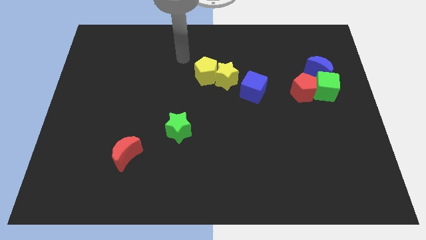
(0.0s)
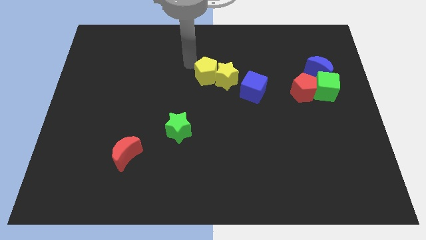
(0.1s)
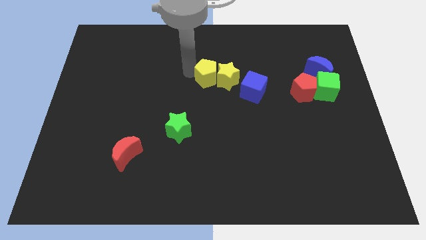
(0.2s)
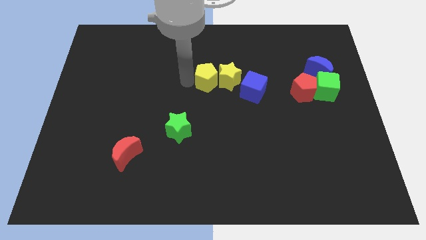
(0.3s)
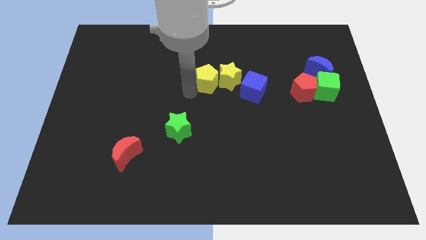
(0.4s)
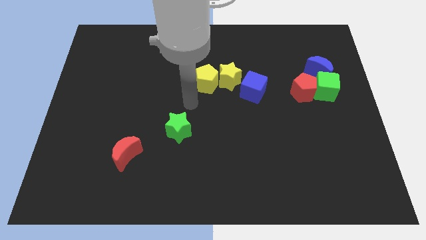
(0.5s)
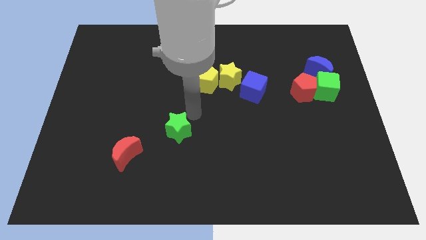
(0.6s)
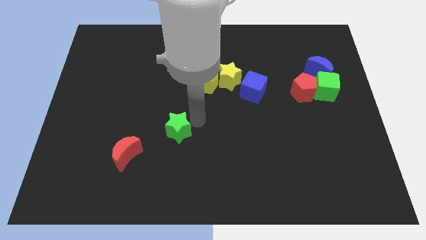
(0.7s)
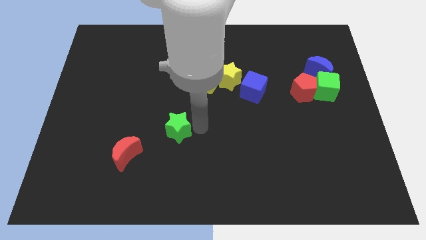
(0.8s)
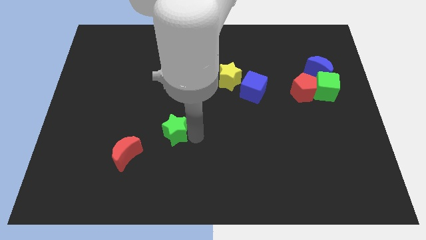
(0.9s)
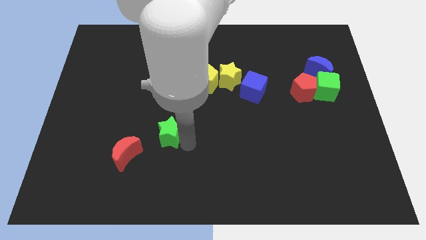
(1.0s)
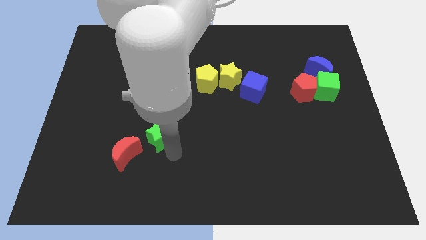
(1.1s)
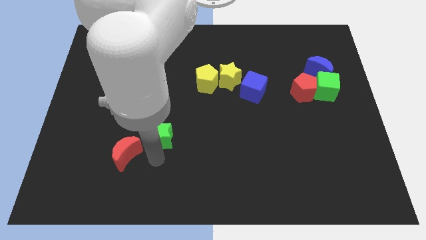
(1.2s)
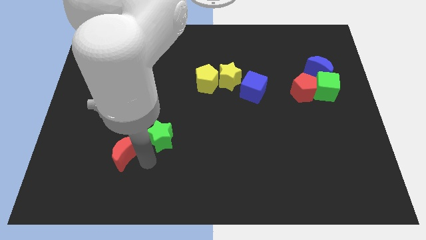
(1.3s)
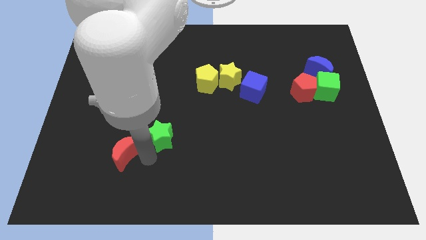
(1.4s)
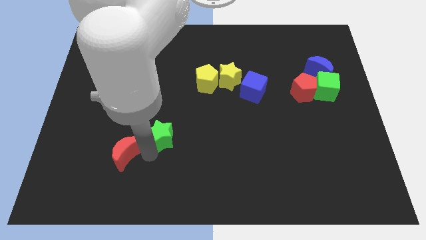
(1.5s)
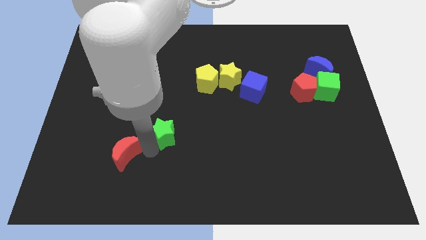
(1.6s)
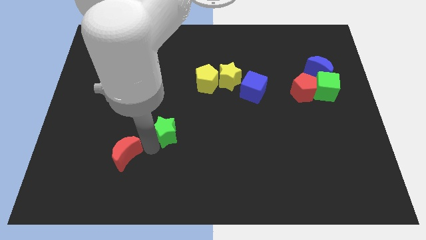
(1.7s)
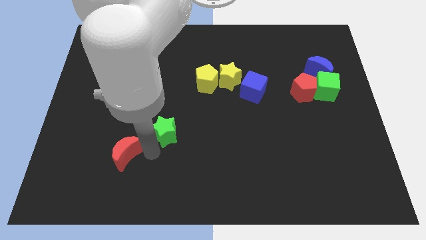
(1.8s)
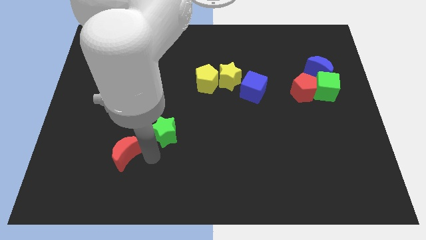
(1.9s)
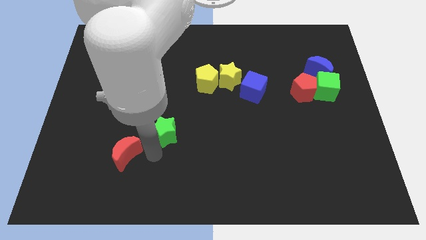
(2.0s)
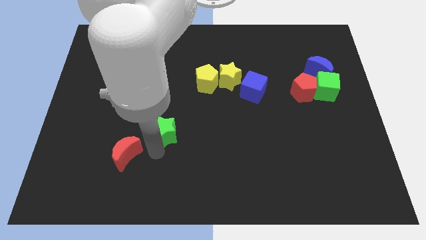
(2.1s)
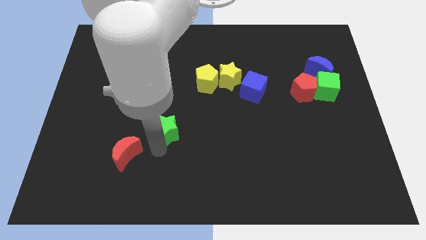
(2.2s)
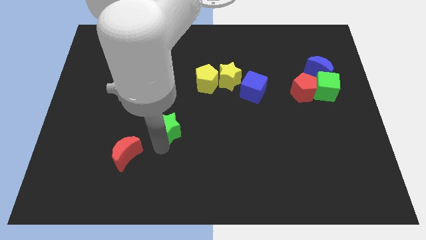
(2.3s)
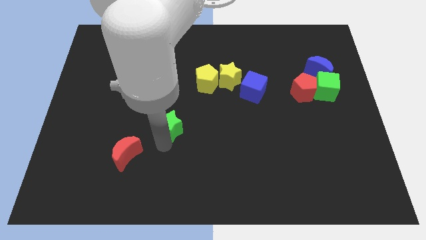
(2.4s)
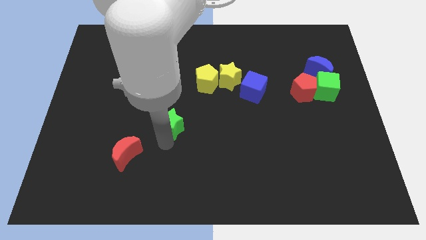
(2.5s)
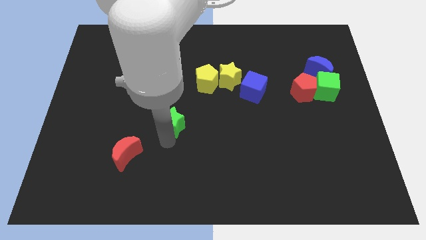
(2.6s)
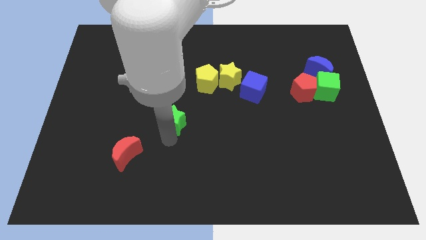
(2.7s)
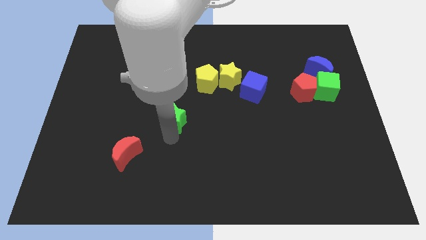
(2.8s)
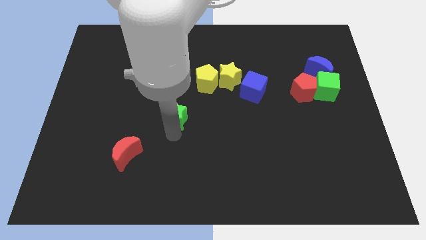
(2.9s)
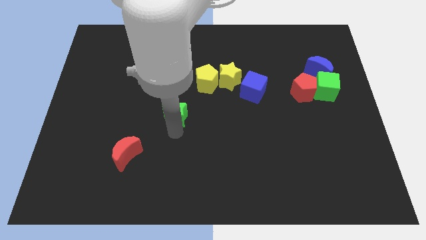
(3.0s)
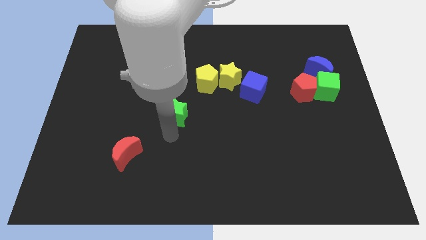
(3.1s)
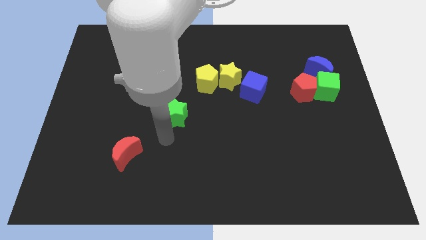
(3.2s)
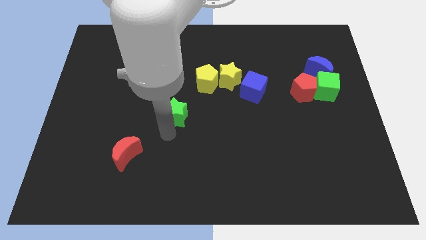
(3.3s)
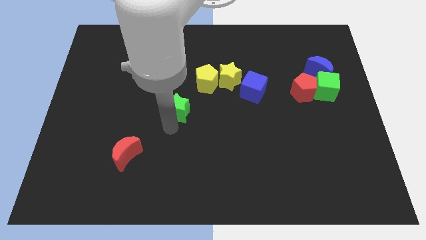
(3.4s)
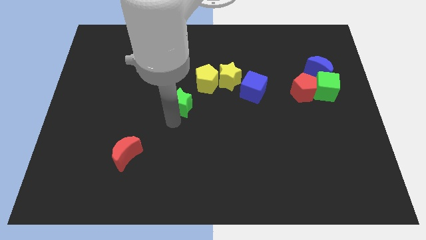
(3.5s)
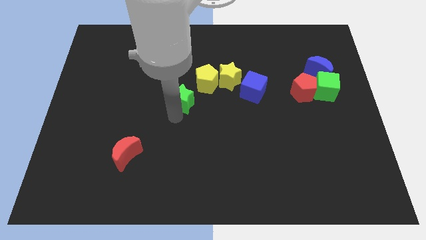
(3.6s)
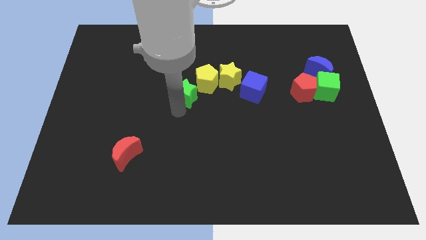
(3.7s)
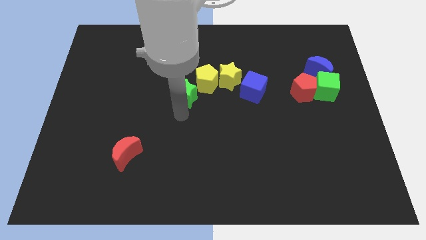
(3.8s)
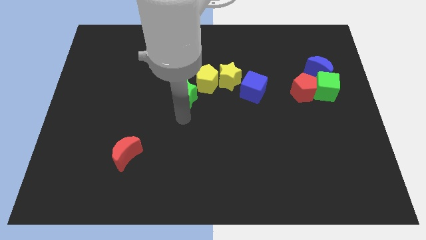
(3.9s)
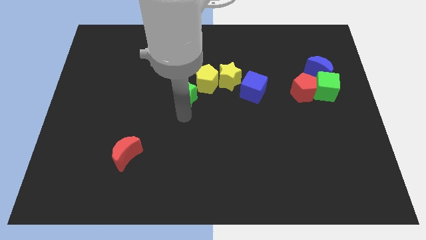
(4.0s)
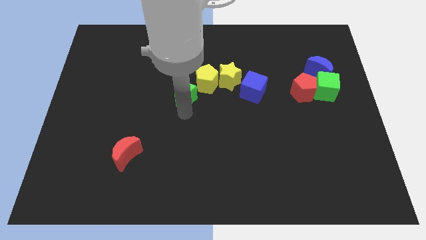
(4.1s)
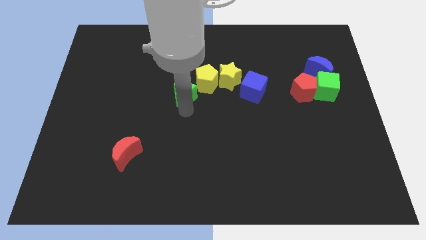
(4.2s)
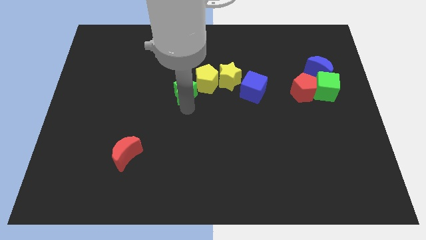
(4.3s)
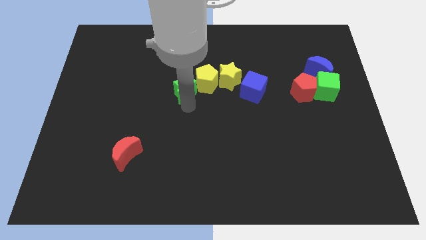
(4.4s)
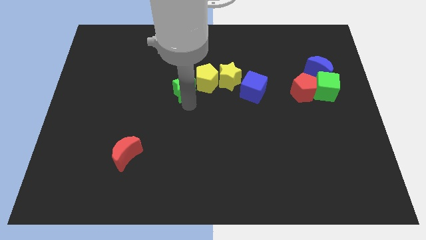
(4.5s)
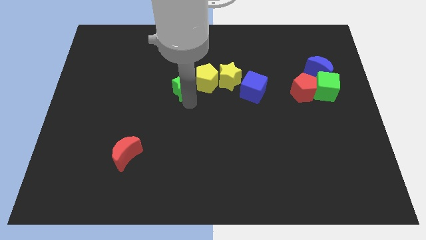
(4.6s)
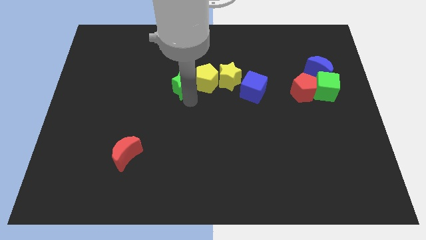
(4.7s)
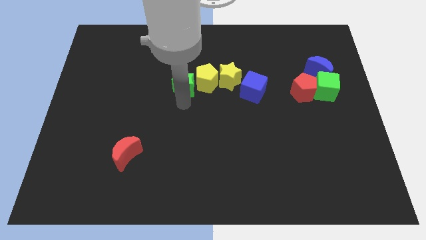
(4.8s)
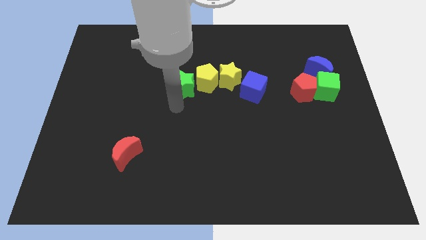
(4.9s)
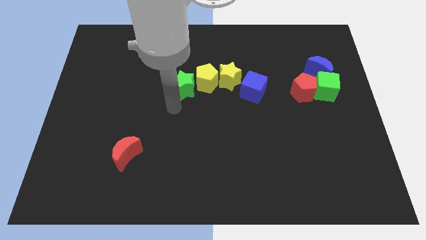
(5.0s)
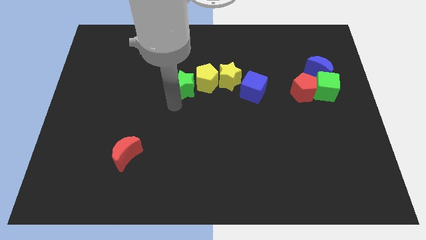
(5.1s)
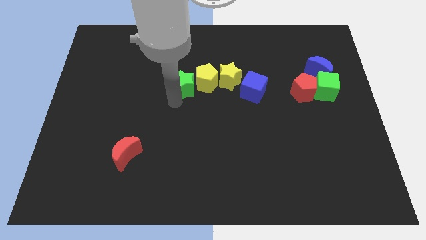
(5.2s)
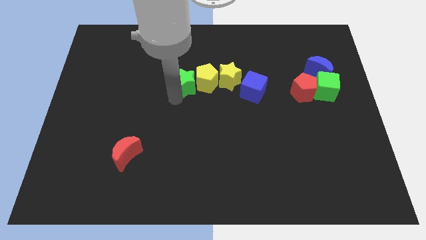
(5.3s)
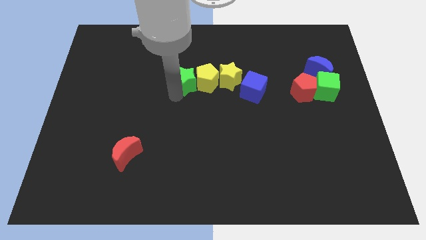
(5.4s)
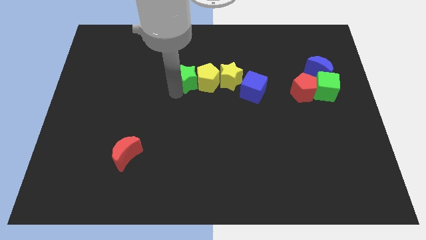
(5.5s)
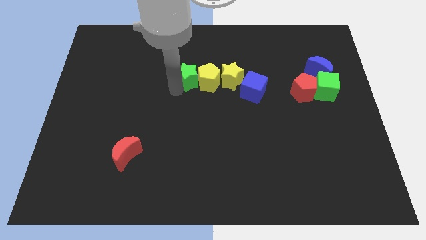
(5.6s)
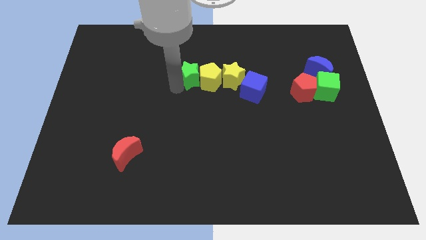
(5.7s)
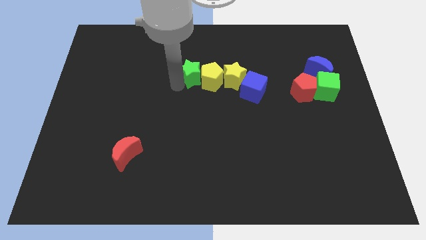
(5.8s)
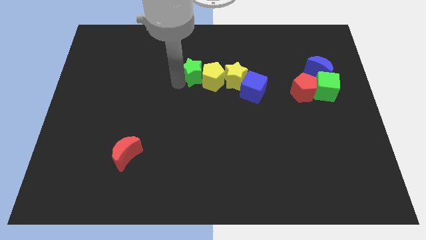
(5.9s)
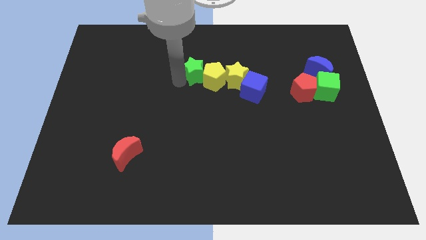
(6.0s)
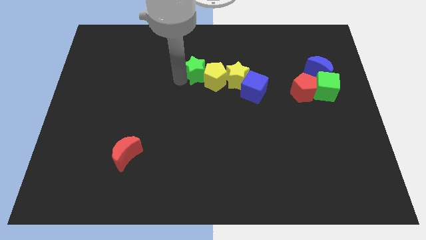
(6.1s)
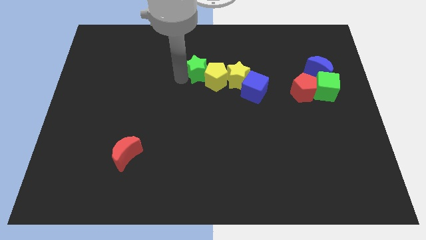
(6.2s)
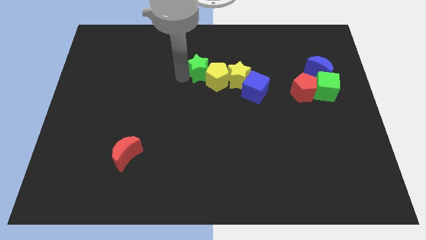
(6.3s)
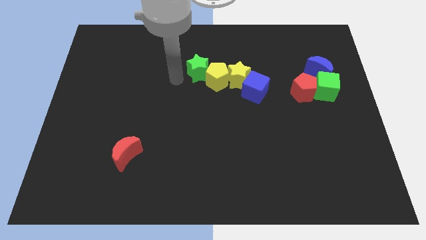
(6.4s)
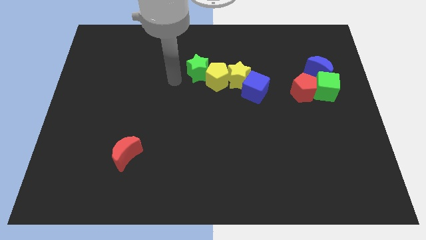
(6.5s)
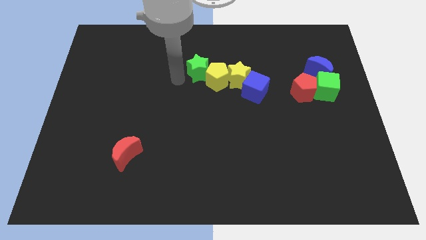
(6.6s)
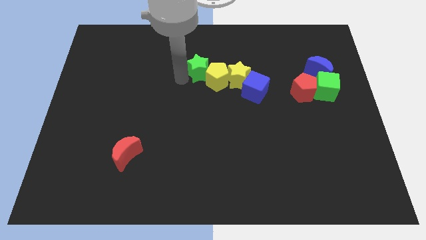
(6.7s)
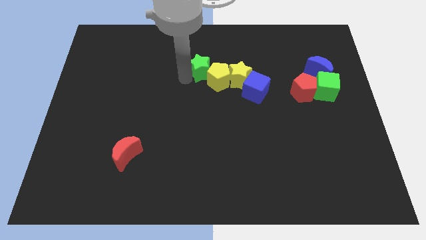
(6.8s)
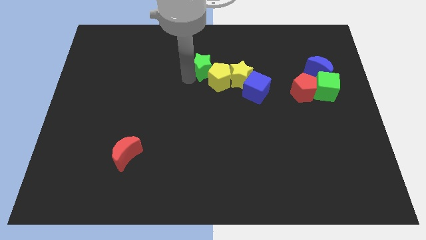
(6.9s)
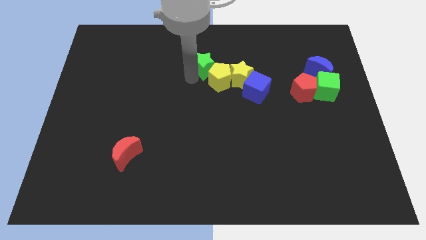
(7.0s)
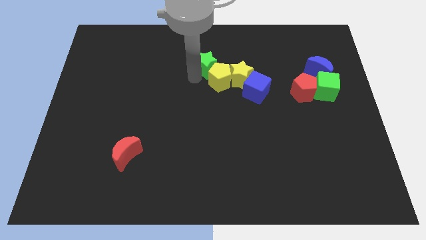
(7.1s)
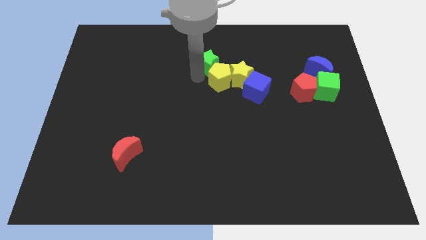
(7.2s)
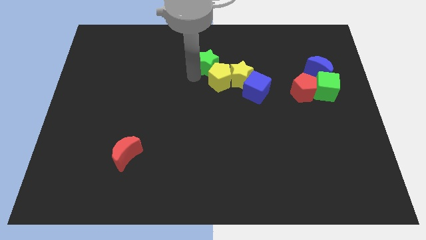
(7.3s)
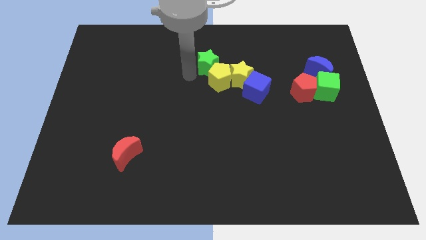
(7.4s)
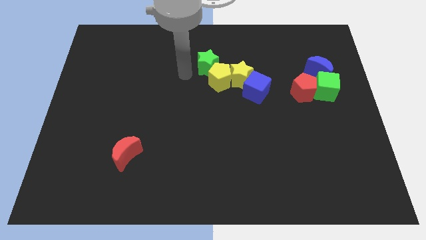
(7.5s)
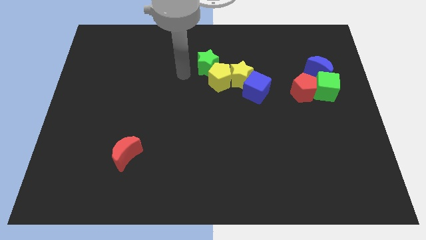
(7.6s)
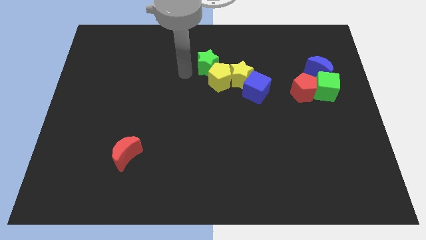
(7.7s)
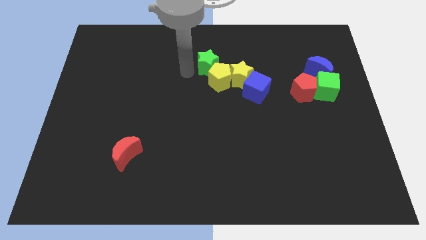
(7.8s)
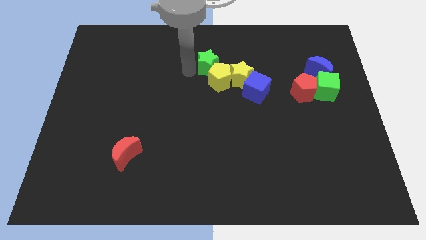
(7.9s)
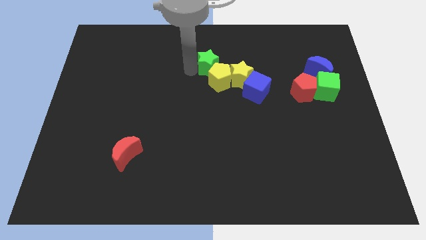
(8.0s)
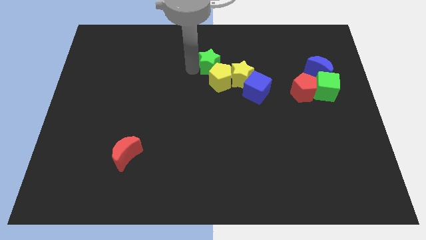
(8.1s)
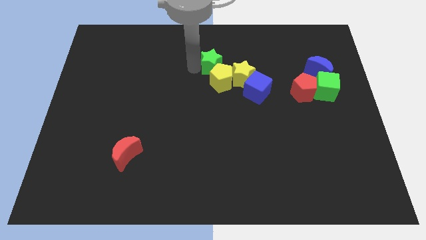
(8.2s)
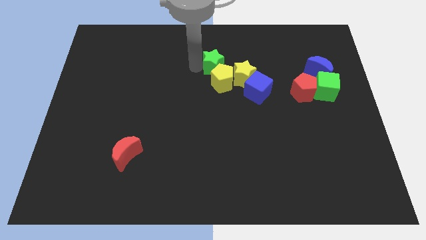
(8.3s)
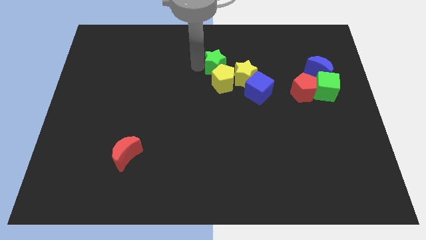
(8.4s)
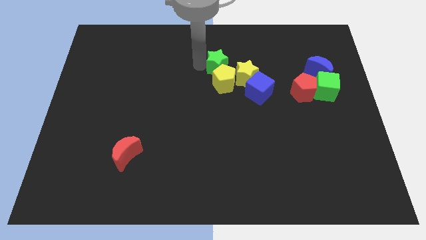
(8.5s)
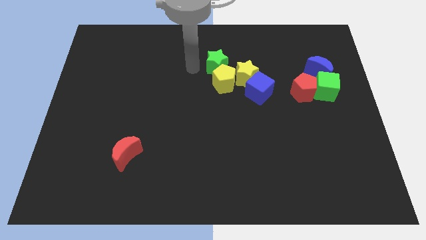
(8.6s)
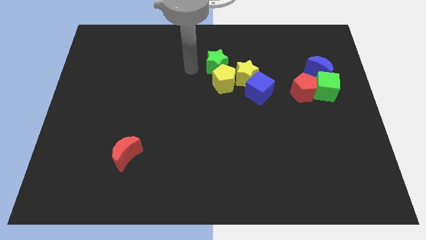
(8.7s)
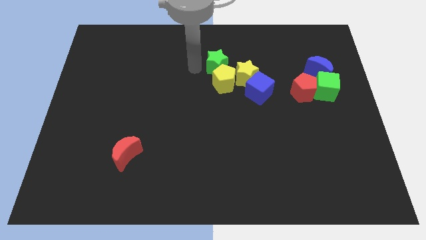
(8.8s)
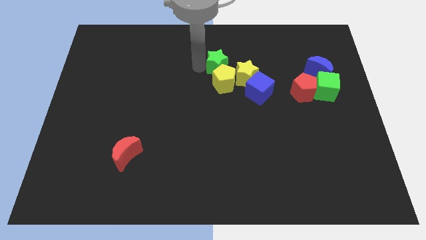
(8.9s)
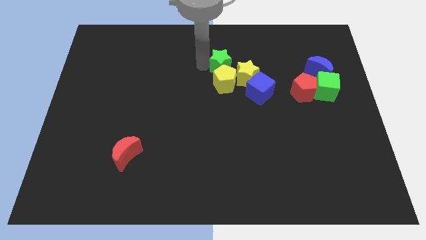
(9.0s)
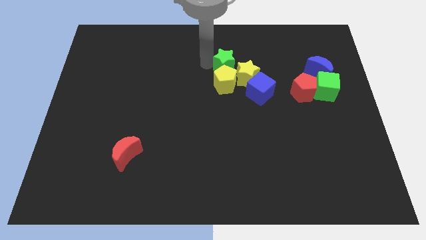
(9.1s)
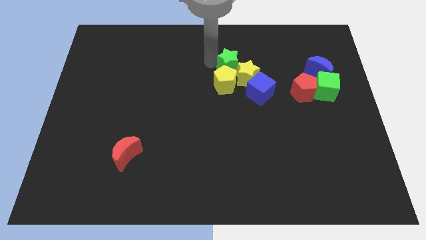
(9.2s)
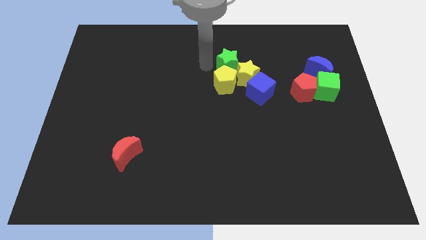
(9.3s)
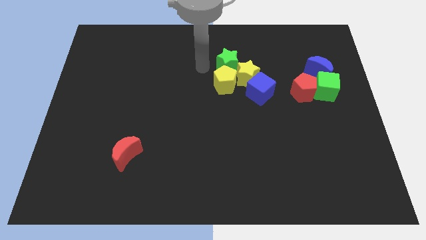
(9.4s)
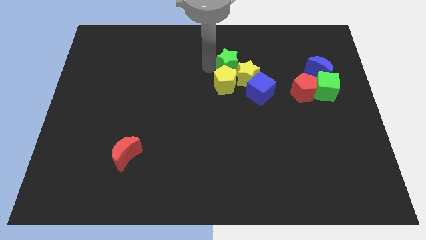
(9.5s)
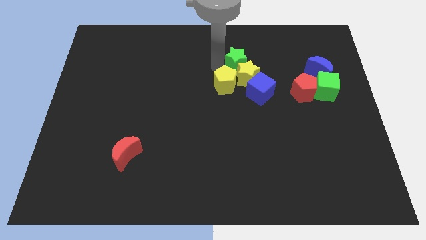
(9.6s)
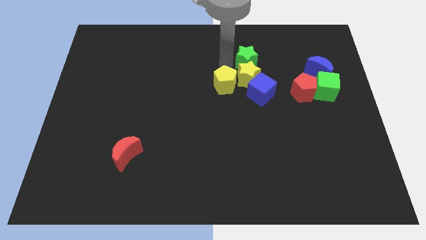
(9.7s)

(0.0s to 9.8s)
put the green star diagonally up and to the right of the yellow star
